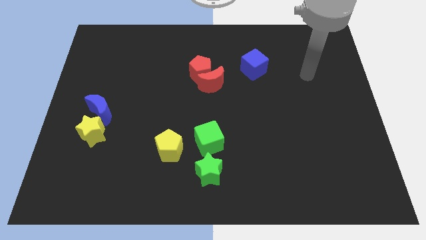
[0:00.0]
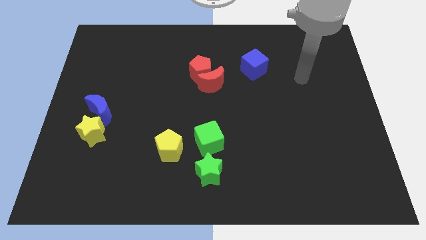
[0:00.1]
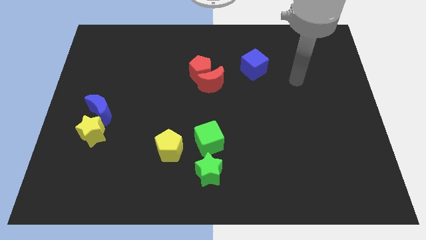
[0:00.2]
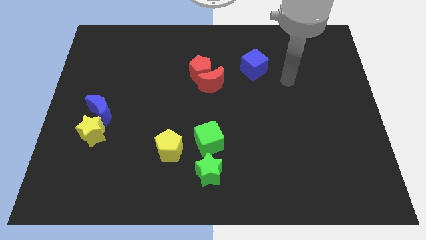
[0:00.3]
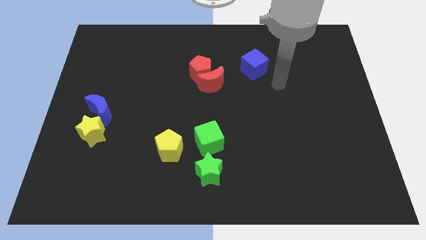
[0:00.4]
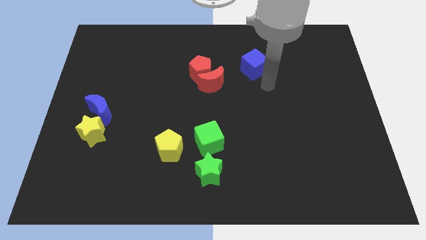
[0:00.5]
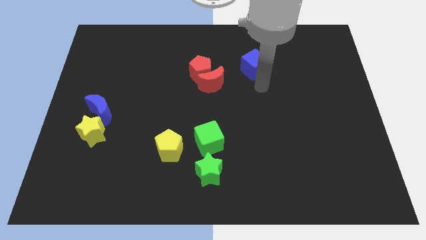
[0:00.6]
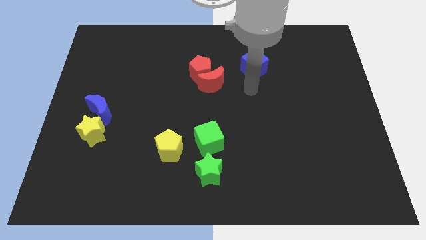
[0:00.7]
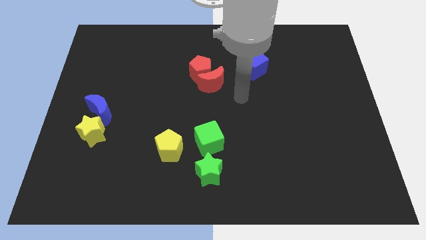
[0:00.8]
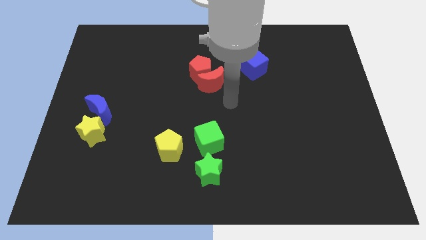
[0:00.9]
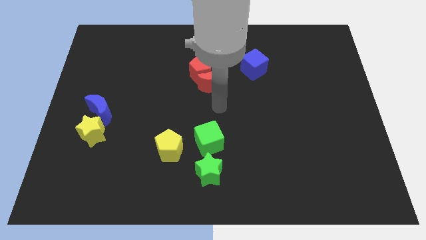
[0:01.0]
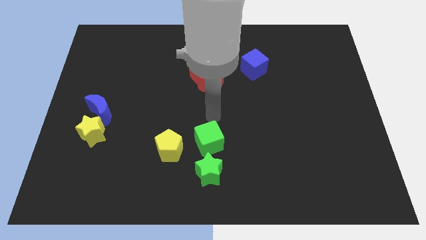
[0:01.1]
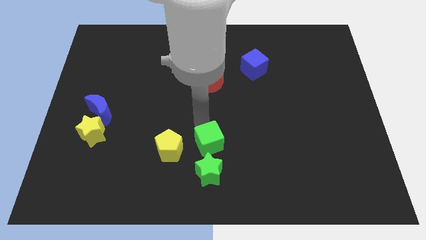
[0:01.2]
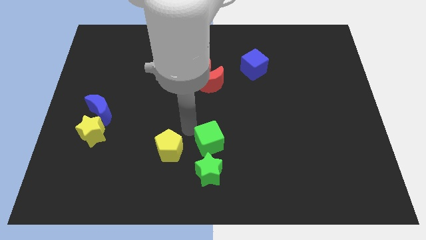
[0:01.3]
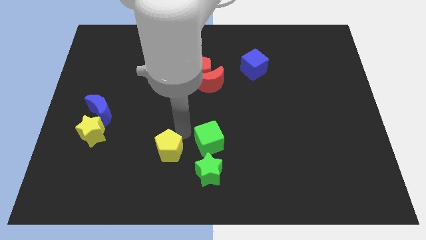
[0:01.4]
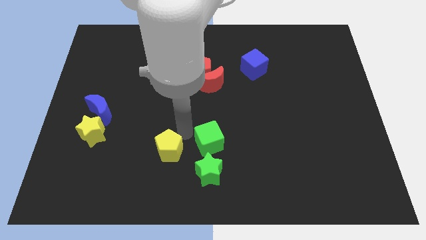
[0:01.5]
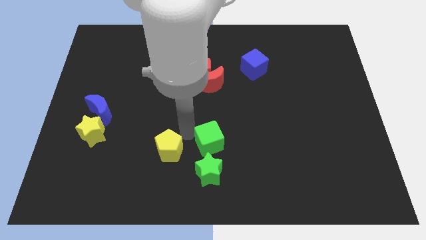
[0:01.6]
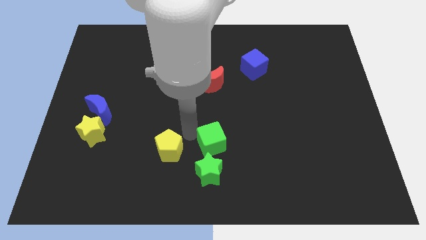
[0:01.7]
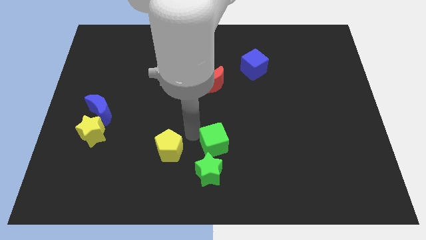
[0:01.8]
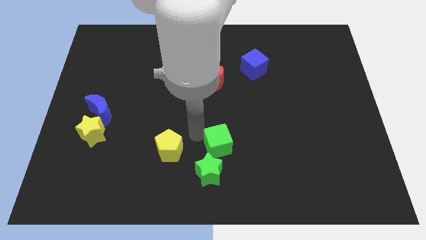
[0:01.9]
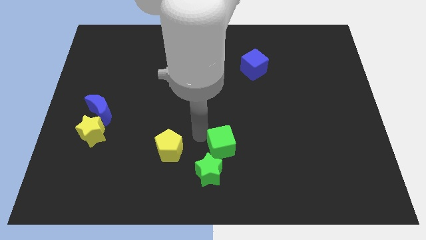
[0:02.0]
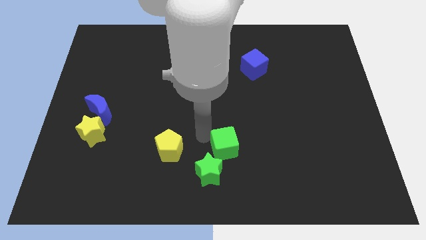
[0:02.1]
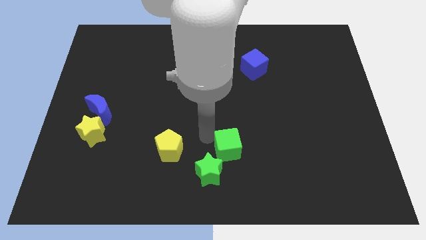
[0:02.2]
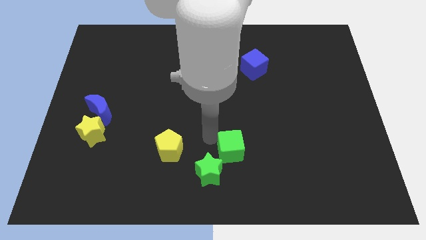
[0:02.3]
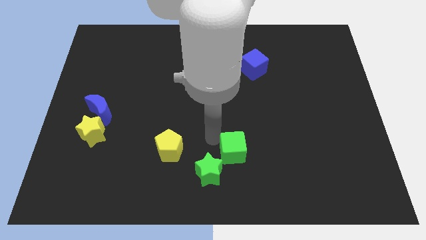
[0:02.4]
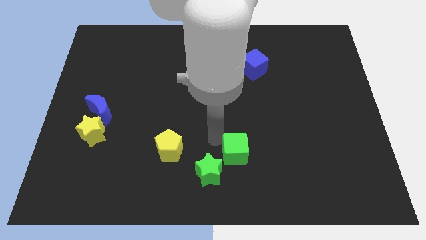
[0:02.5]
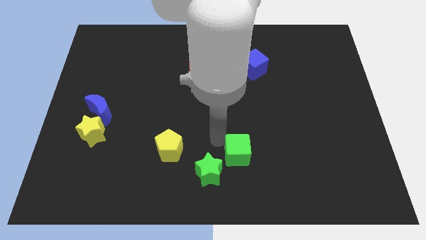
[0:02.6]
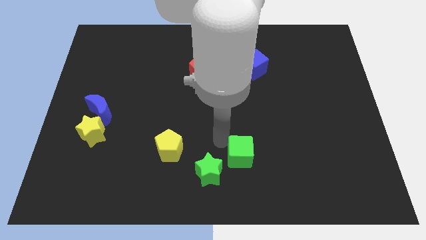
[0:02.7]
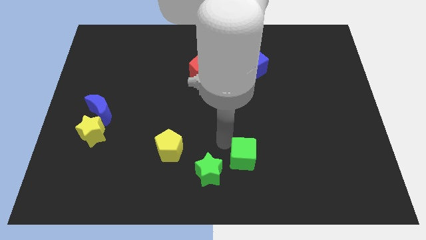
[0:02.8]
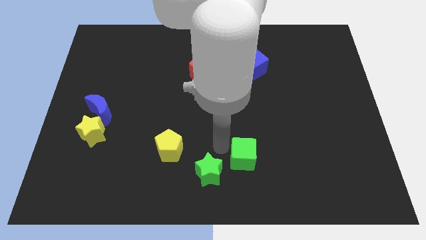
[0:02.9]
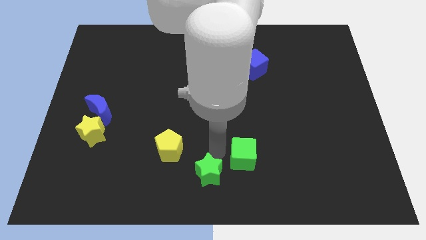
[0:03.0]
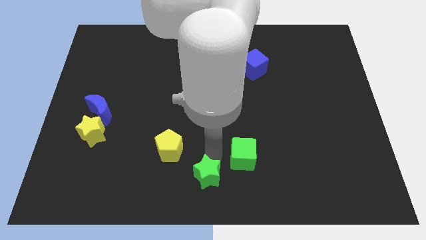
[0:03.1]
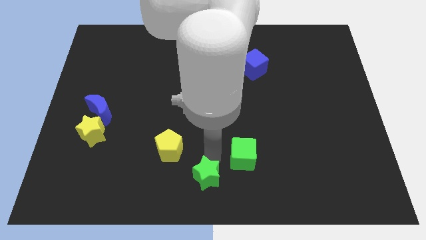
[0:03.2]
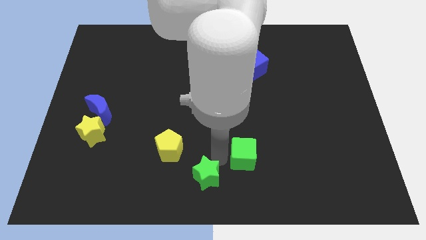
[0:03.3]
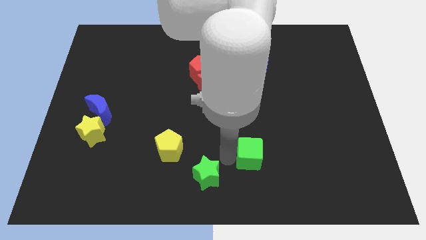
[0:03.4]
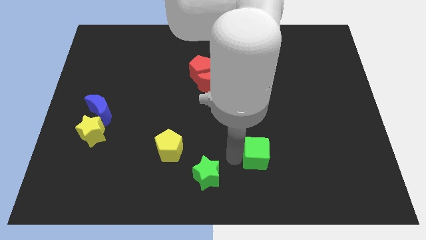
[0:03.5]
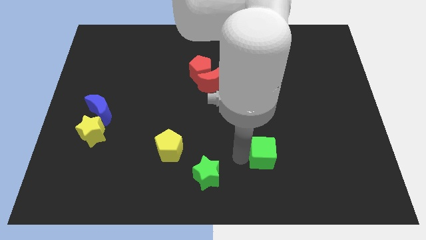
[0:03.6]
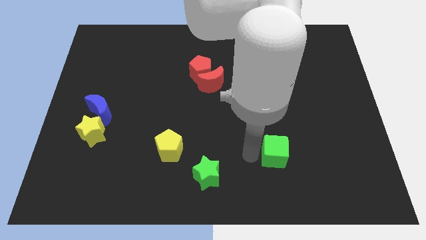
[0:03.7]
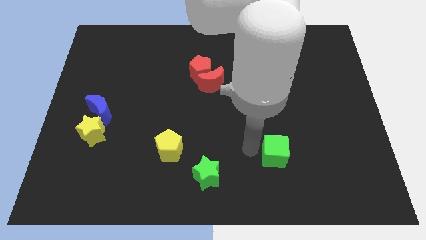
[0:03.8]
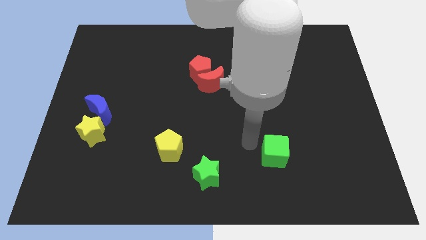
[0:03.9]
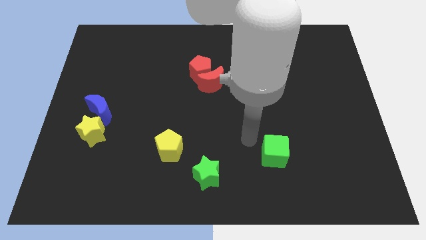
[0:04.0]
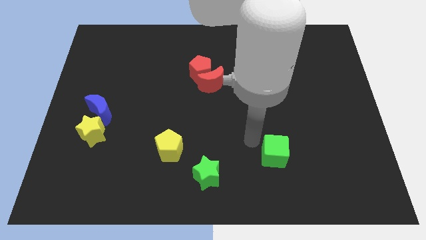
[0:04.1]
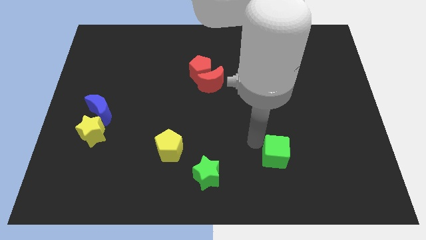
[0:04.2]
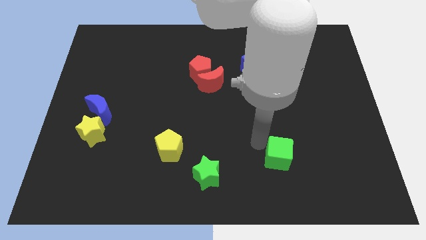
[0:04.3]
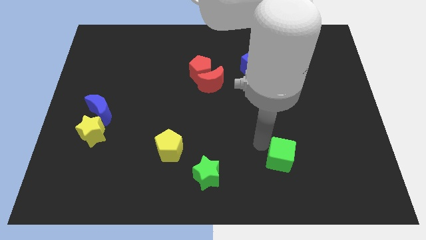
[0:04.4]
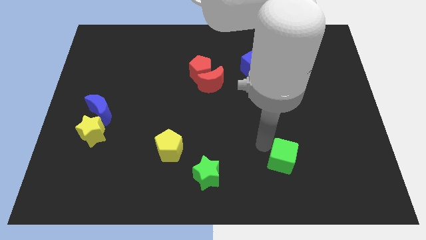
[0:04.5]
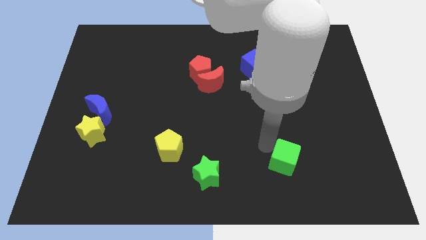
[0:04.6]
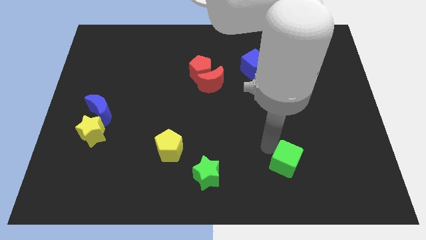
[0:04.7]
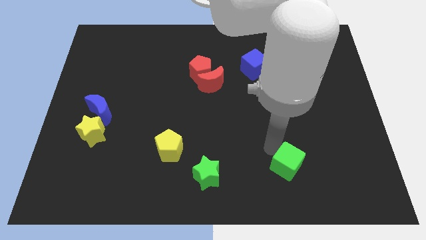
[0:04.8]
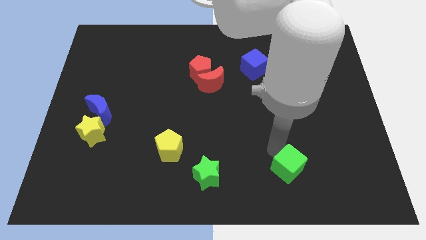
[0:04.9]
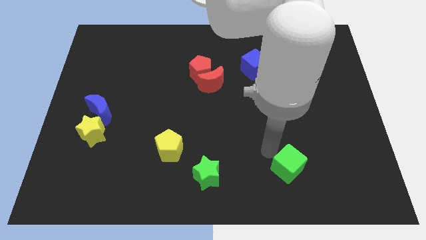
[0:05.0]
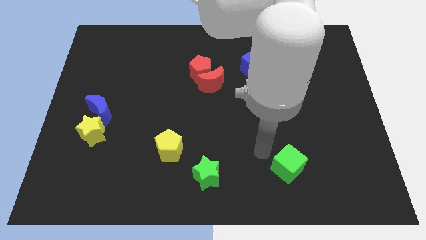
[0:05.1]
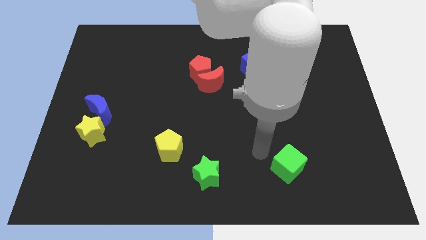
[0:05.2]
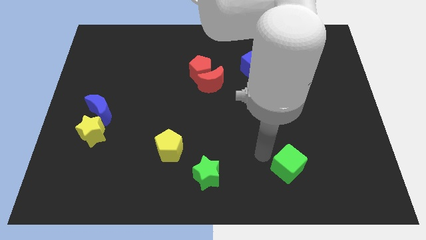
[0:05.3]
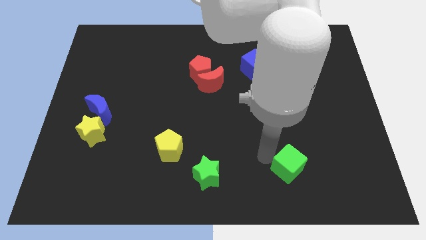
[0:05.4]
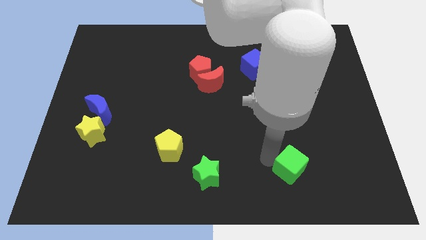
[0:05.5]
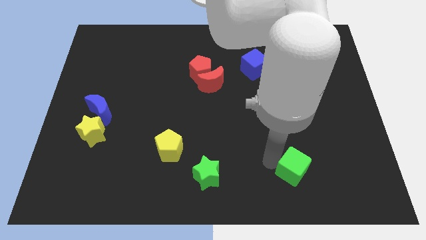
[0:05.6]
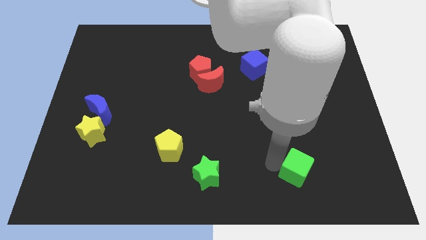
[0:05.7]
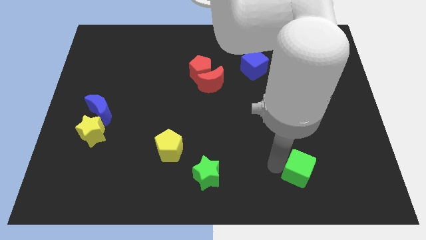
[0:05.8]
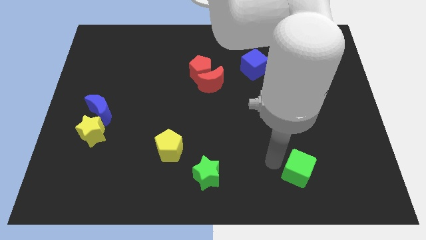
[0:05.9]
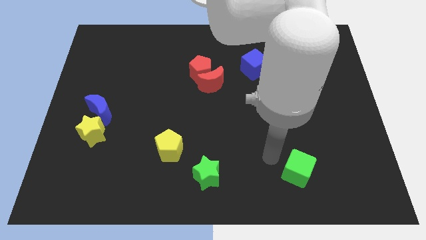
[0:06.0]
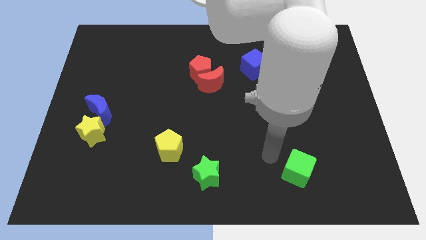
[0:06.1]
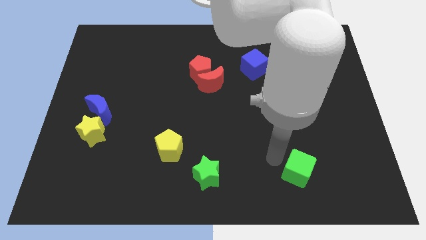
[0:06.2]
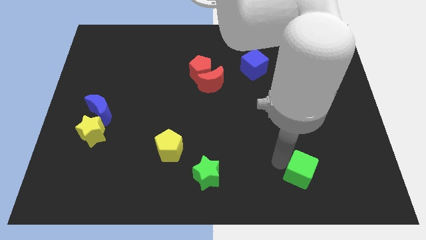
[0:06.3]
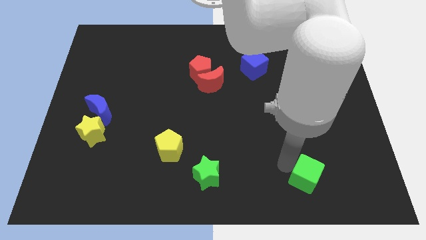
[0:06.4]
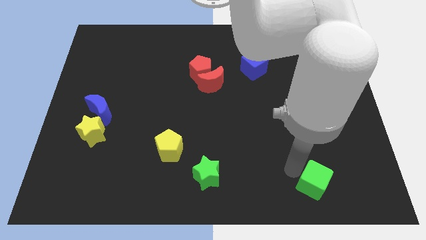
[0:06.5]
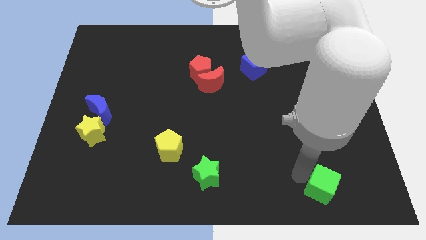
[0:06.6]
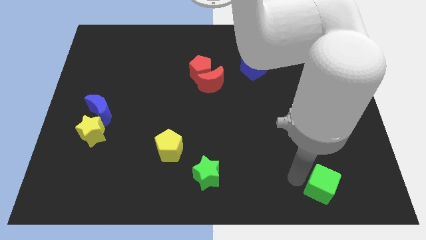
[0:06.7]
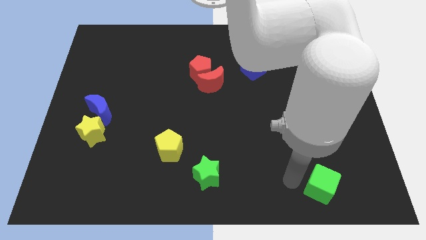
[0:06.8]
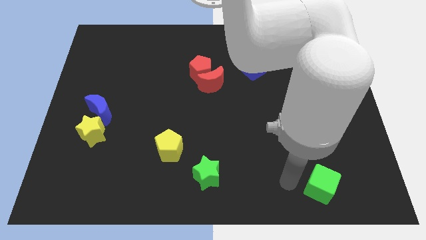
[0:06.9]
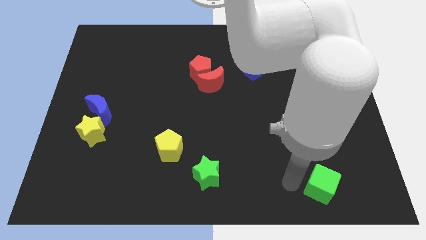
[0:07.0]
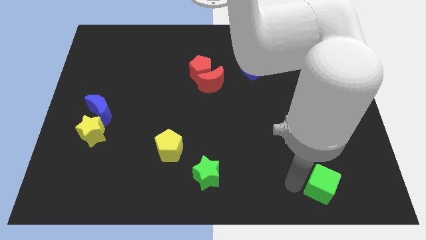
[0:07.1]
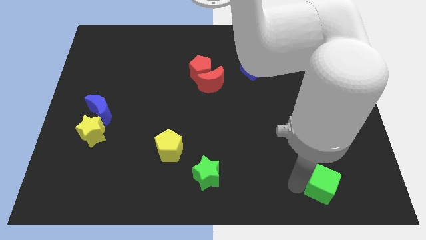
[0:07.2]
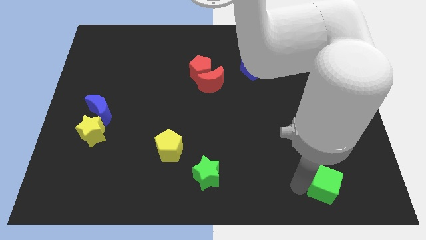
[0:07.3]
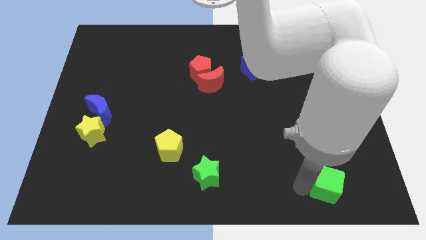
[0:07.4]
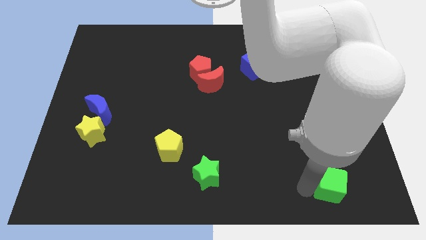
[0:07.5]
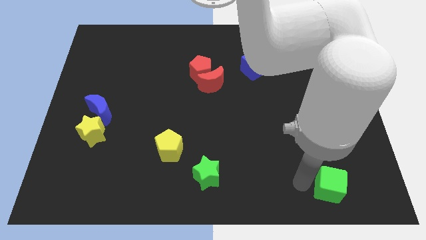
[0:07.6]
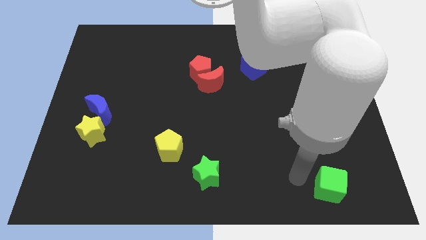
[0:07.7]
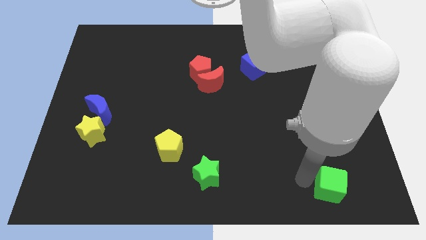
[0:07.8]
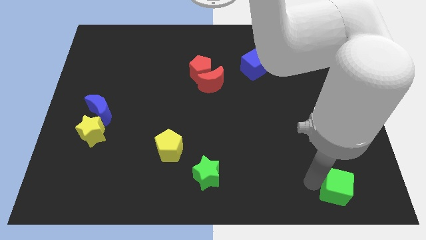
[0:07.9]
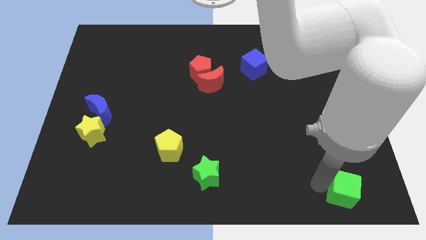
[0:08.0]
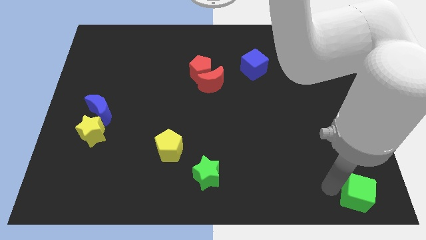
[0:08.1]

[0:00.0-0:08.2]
push the green cube to the bottom right
